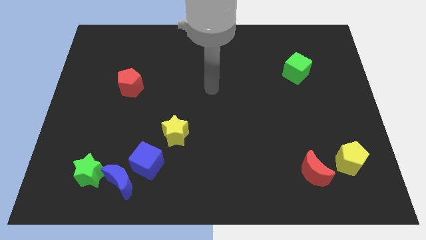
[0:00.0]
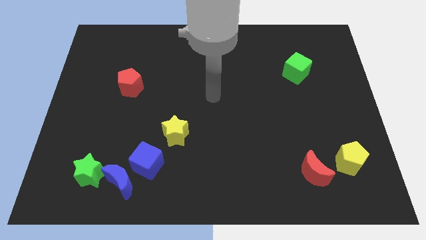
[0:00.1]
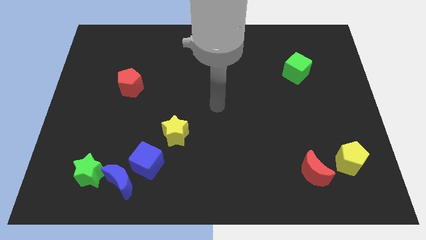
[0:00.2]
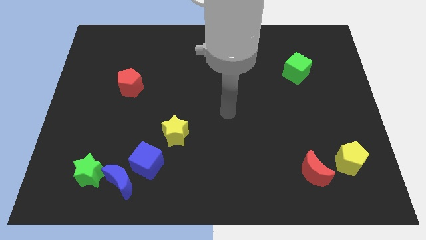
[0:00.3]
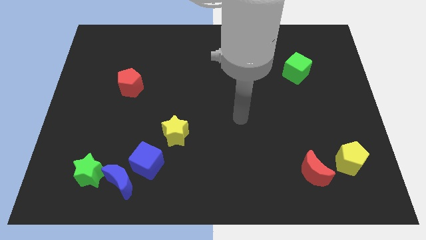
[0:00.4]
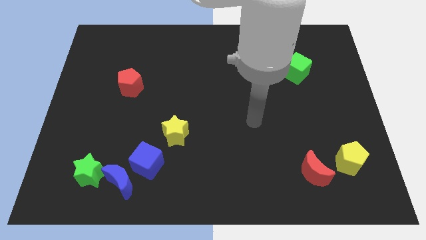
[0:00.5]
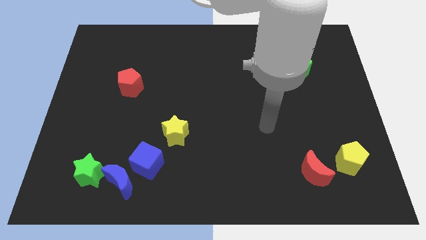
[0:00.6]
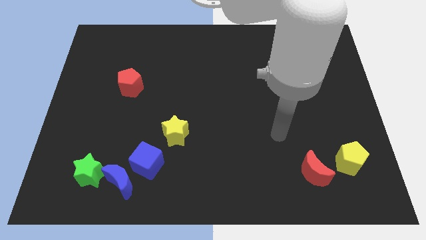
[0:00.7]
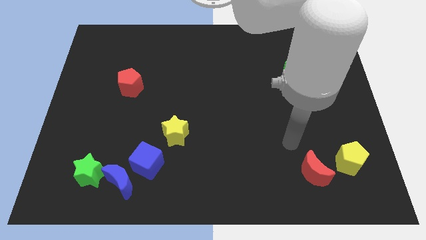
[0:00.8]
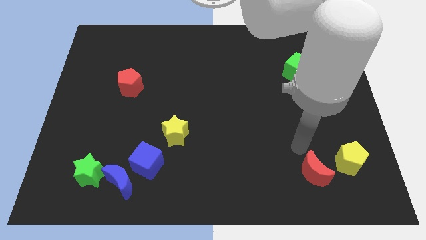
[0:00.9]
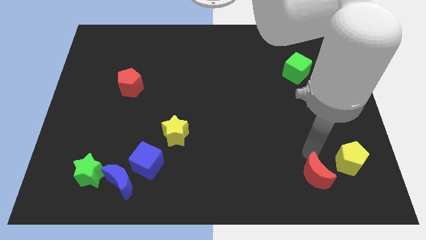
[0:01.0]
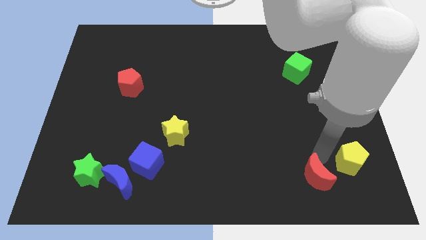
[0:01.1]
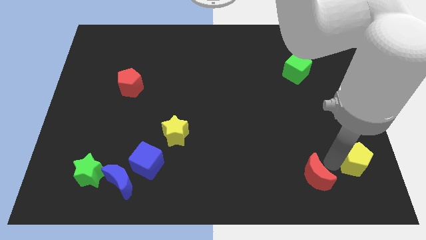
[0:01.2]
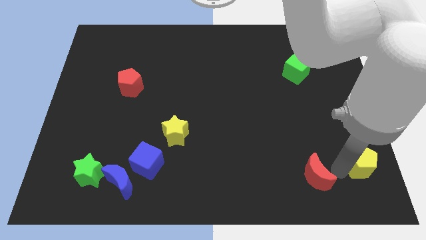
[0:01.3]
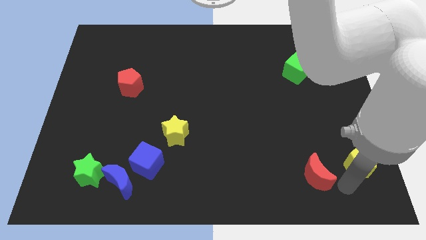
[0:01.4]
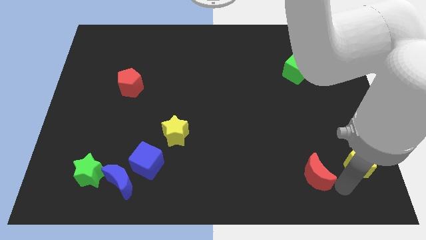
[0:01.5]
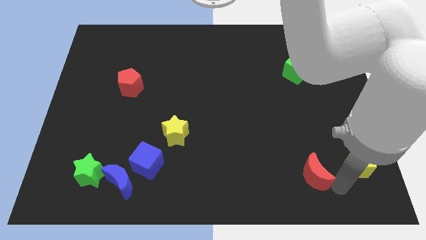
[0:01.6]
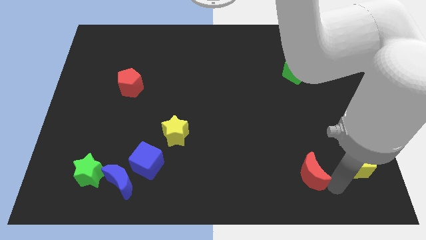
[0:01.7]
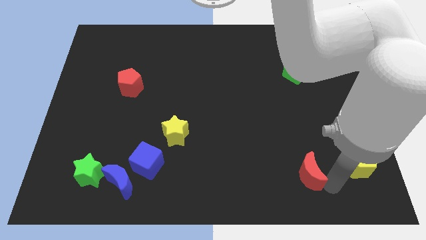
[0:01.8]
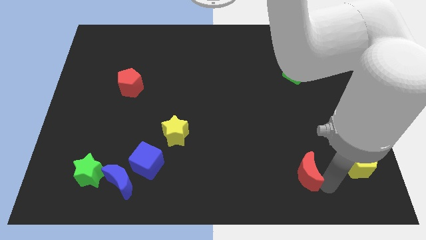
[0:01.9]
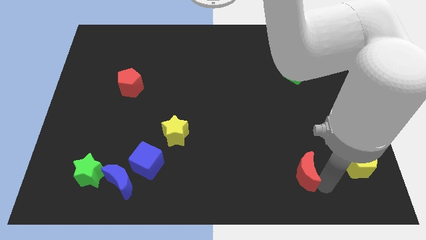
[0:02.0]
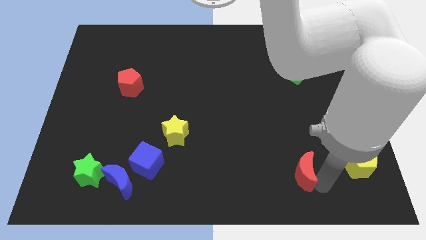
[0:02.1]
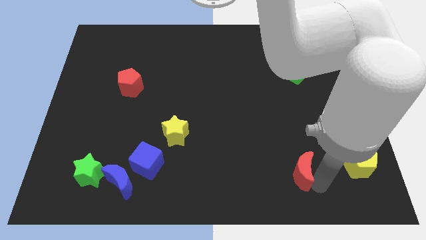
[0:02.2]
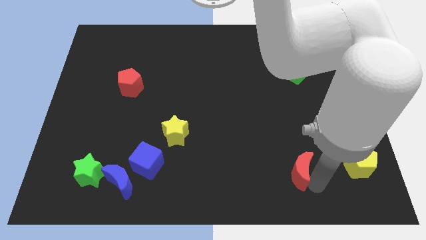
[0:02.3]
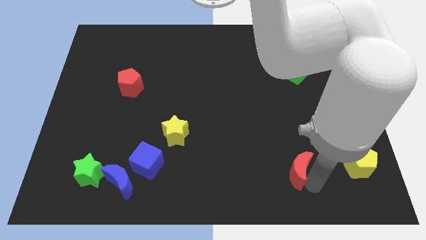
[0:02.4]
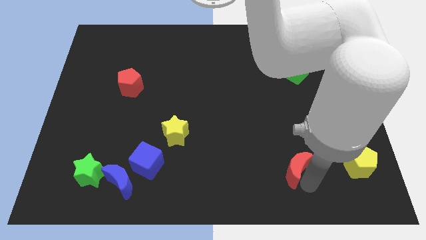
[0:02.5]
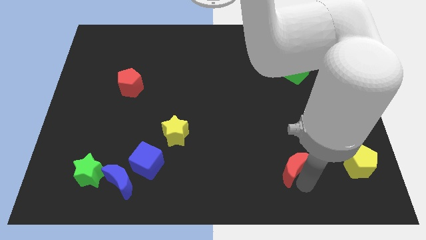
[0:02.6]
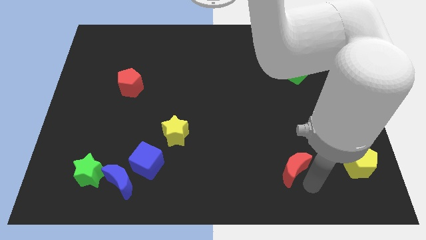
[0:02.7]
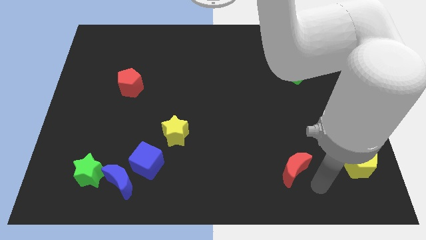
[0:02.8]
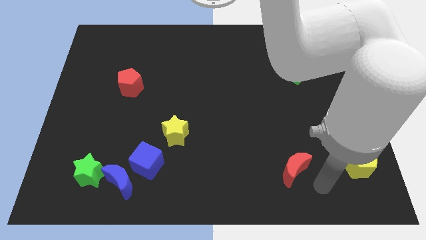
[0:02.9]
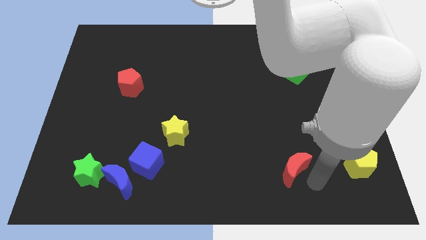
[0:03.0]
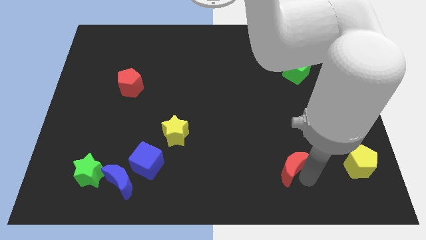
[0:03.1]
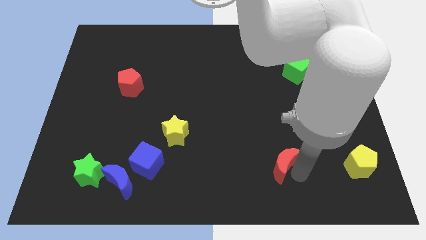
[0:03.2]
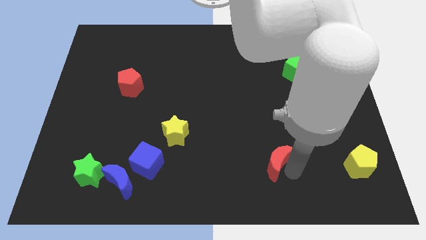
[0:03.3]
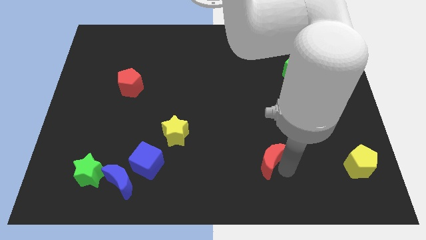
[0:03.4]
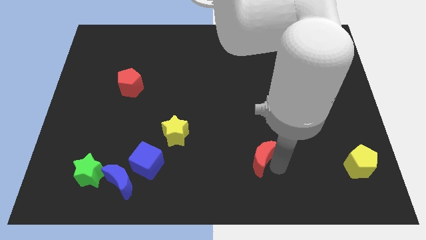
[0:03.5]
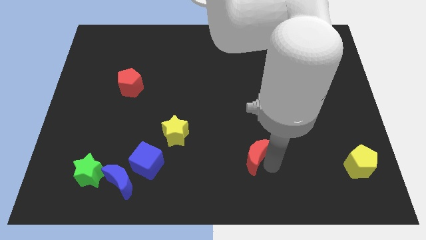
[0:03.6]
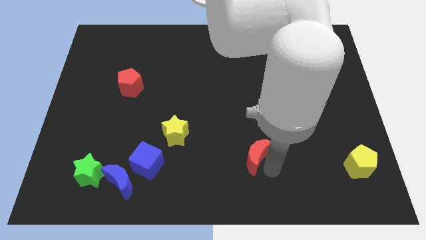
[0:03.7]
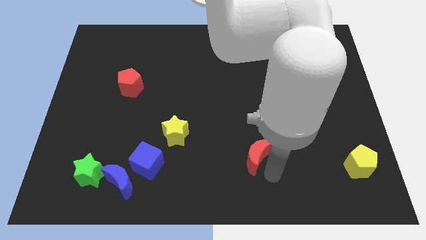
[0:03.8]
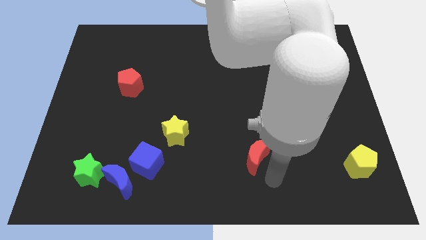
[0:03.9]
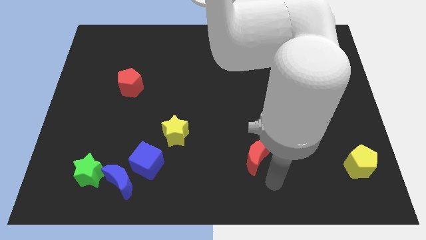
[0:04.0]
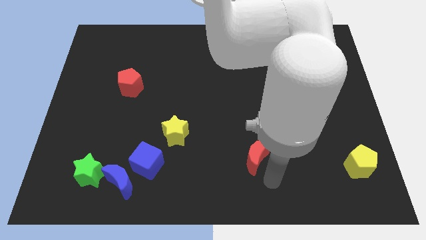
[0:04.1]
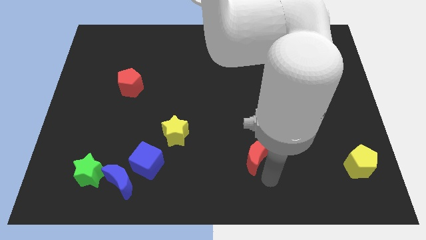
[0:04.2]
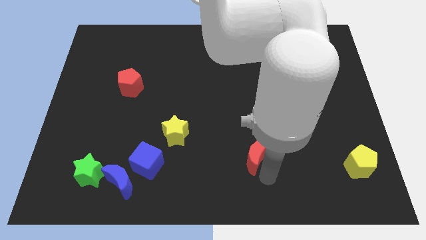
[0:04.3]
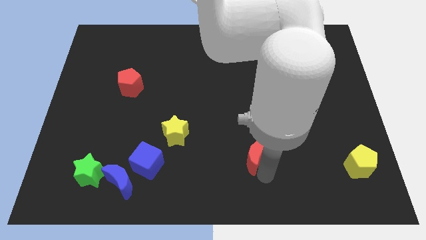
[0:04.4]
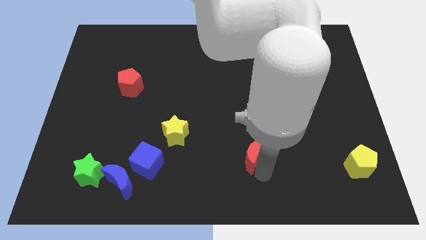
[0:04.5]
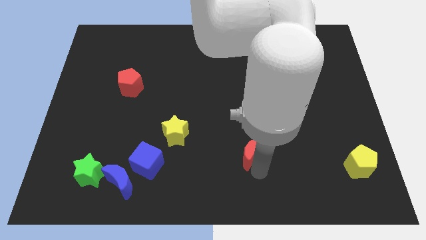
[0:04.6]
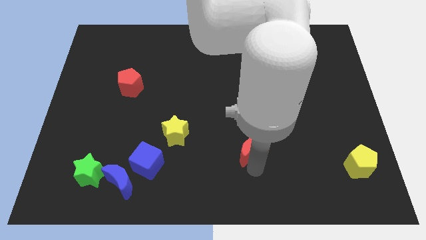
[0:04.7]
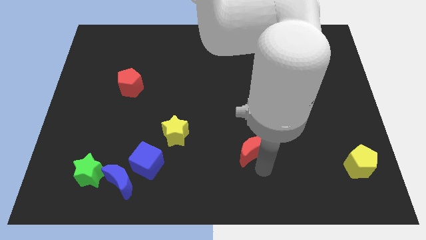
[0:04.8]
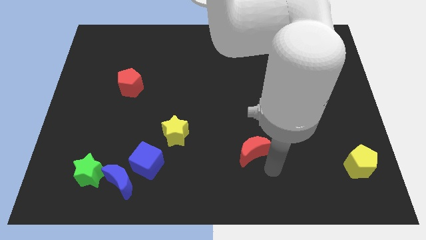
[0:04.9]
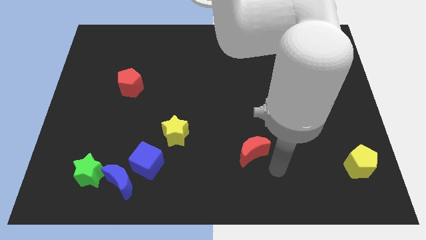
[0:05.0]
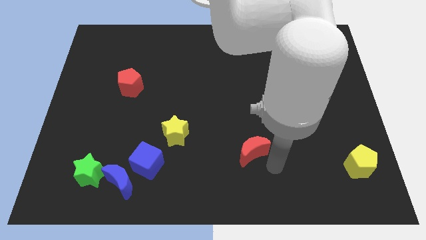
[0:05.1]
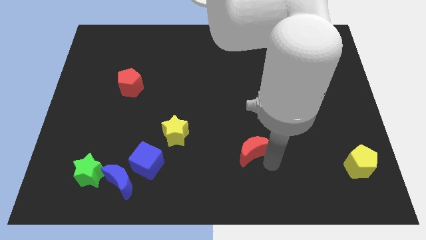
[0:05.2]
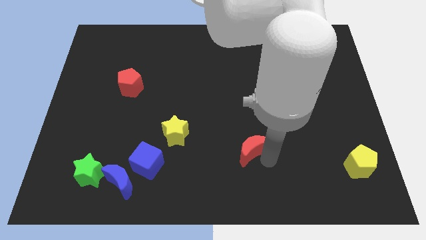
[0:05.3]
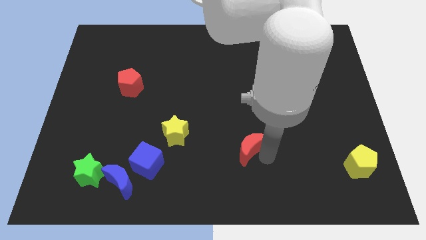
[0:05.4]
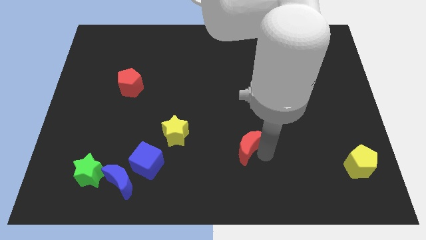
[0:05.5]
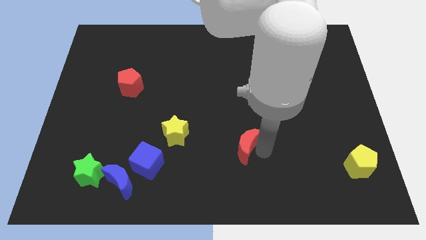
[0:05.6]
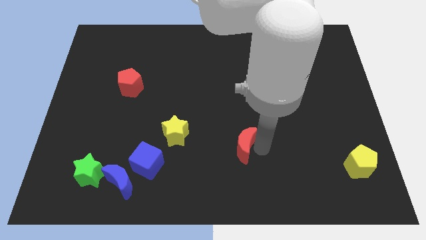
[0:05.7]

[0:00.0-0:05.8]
slide the red moon right of the yellow star

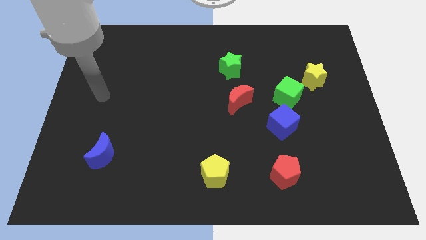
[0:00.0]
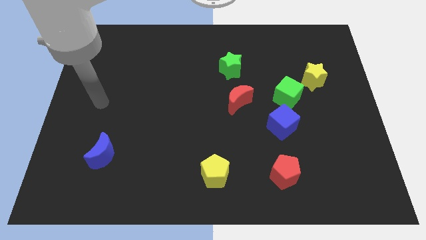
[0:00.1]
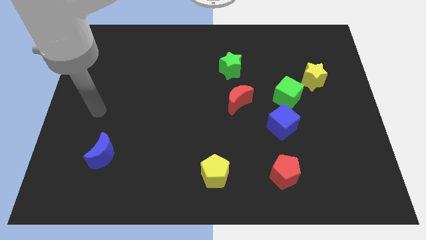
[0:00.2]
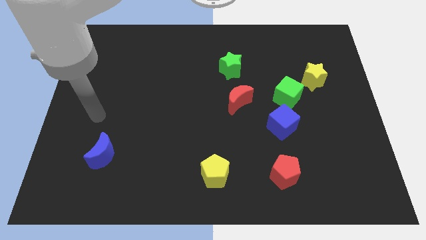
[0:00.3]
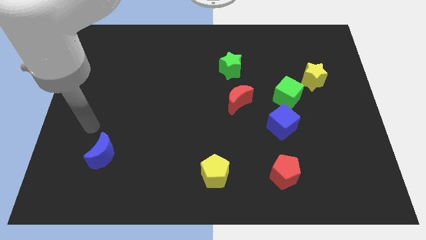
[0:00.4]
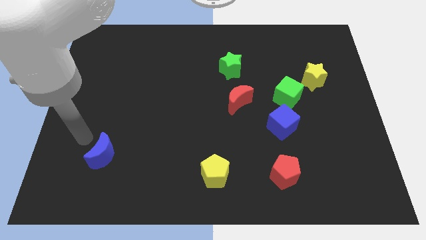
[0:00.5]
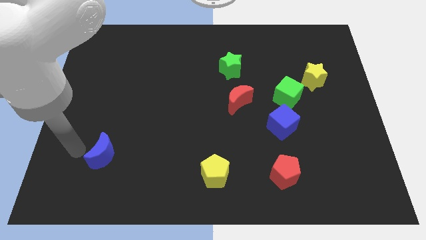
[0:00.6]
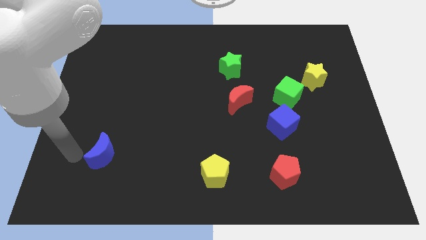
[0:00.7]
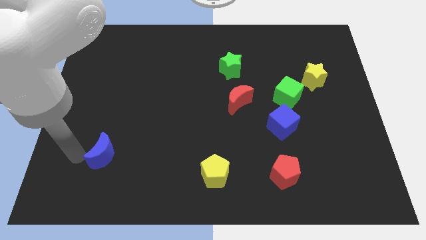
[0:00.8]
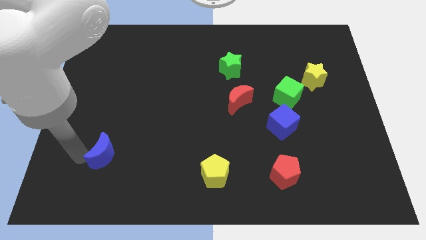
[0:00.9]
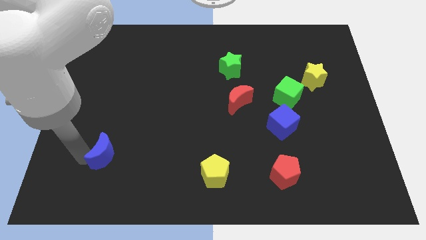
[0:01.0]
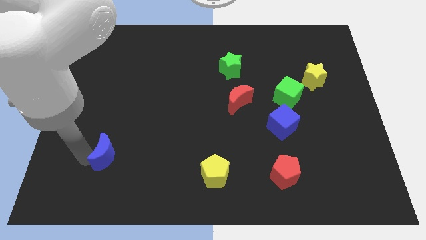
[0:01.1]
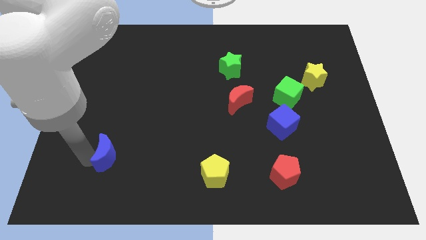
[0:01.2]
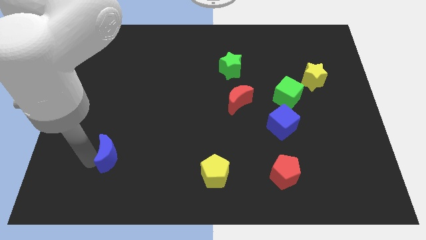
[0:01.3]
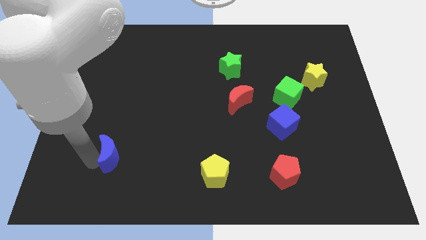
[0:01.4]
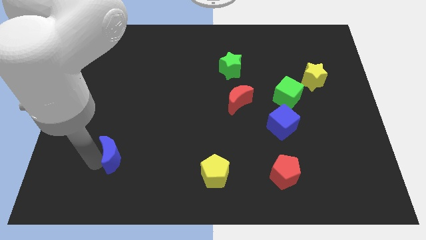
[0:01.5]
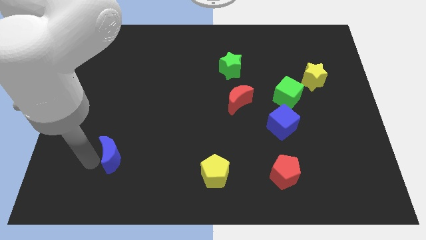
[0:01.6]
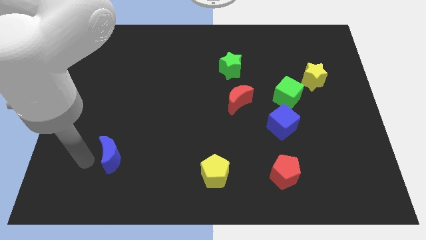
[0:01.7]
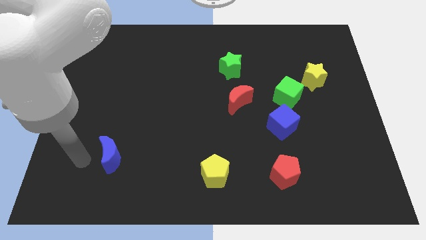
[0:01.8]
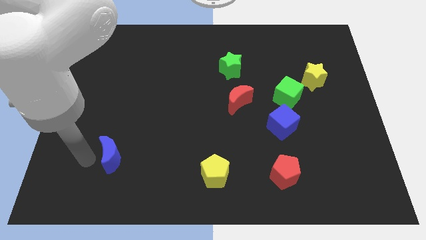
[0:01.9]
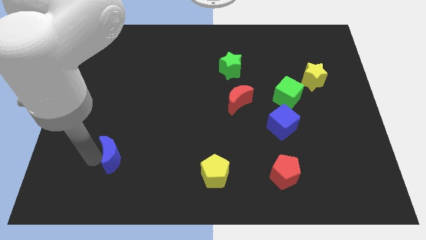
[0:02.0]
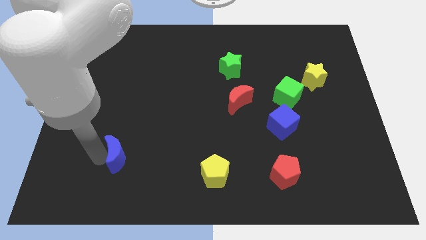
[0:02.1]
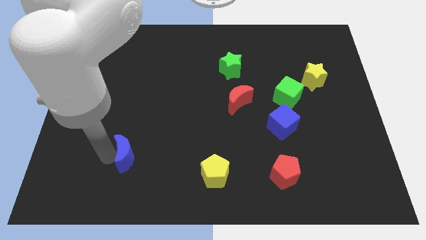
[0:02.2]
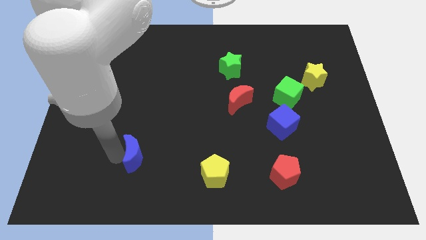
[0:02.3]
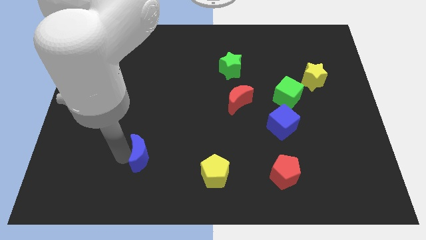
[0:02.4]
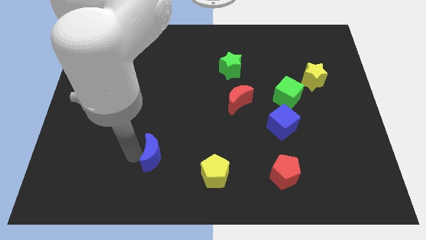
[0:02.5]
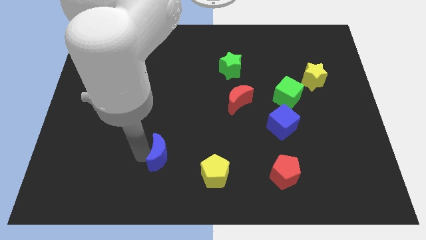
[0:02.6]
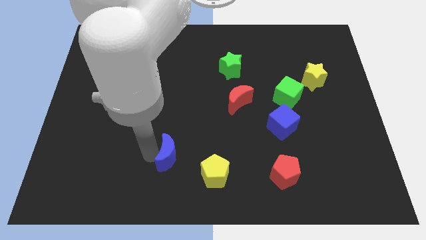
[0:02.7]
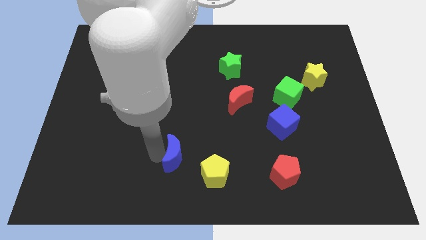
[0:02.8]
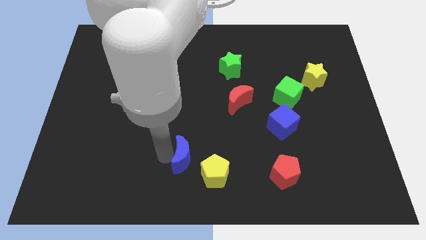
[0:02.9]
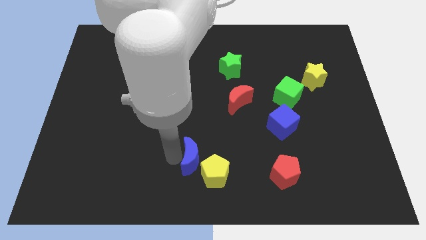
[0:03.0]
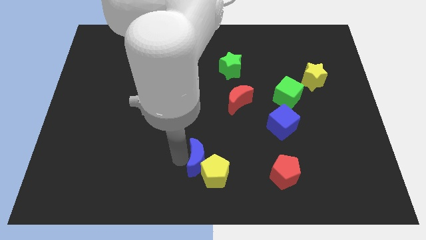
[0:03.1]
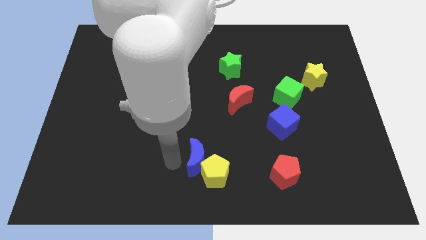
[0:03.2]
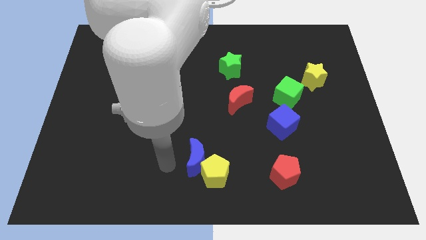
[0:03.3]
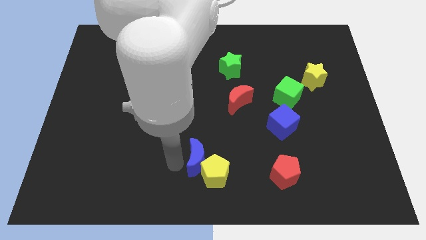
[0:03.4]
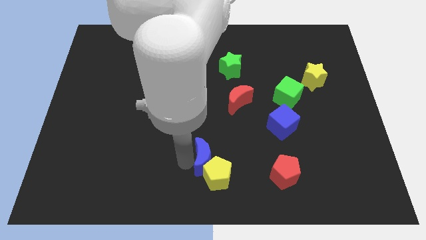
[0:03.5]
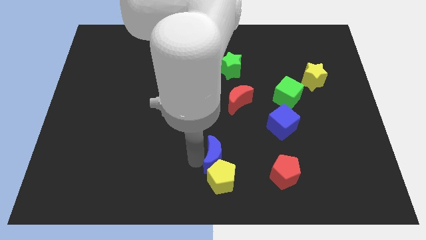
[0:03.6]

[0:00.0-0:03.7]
push the blue moon to the top right of the yellow pentagon
